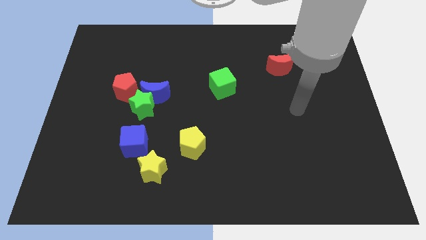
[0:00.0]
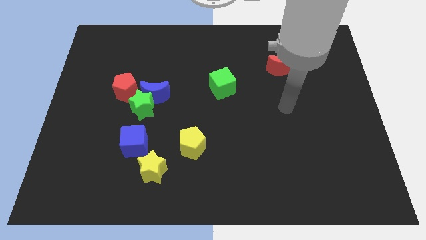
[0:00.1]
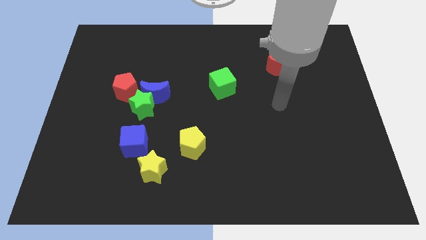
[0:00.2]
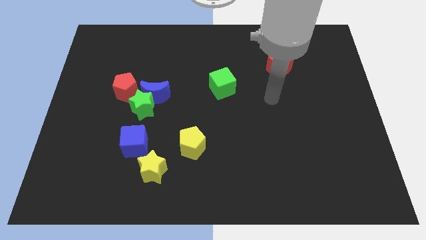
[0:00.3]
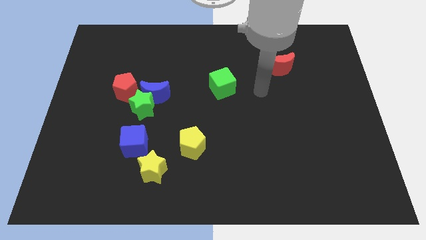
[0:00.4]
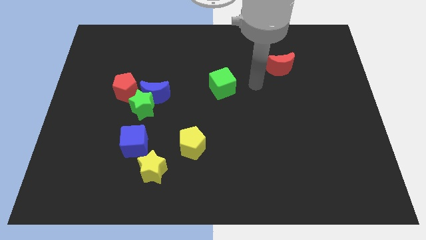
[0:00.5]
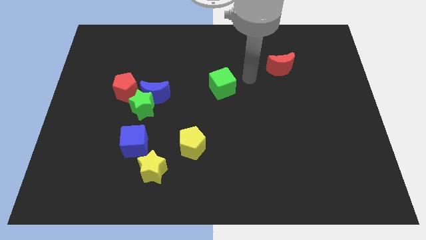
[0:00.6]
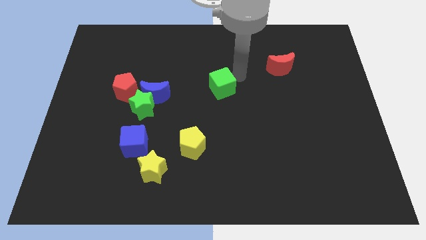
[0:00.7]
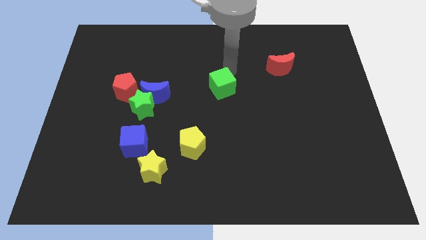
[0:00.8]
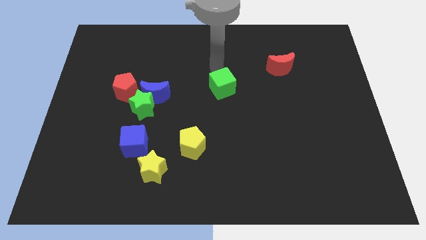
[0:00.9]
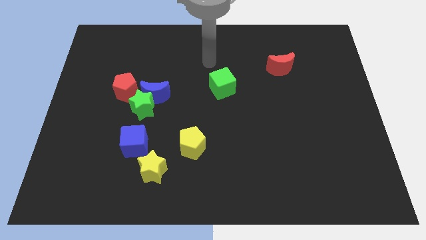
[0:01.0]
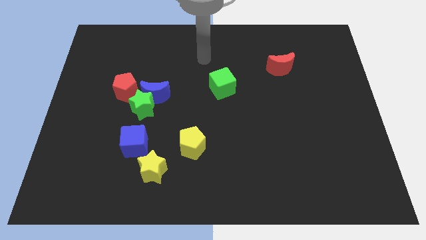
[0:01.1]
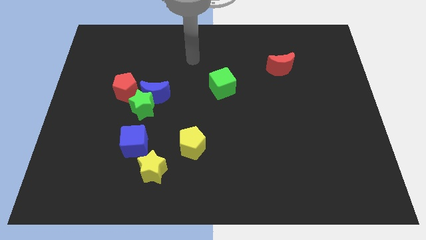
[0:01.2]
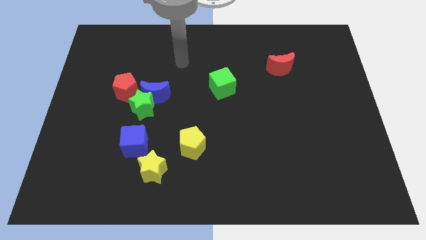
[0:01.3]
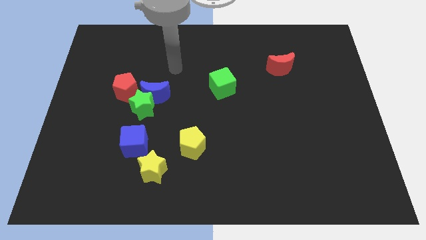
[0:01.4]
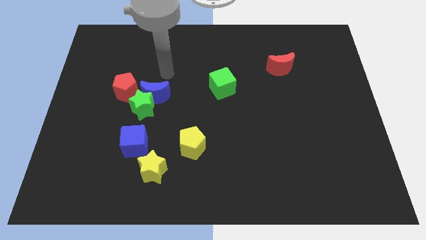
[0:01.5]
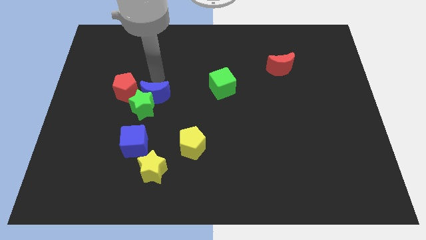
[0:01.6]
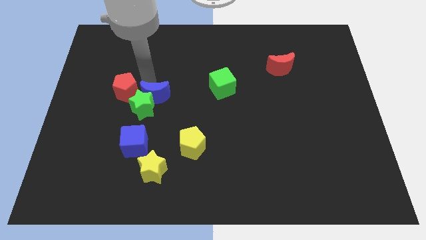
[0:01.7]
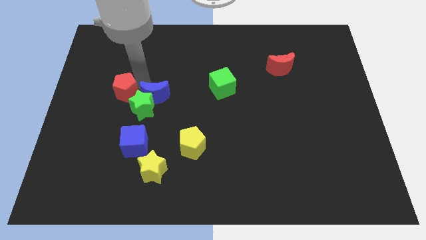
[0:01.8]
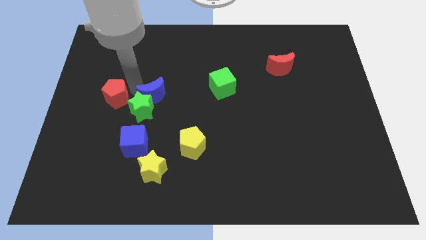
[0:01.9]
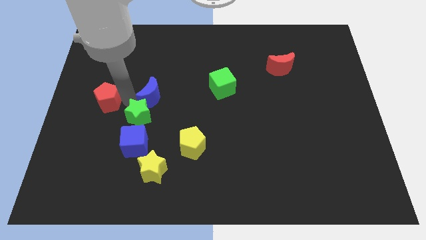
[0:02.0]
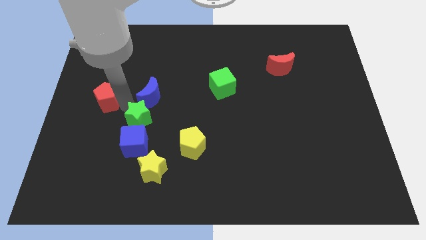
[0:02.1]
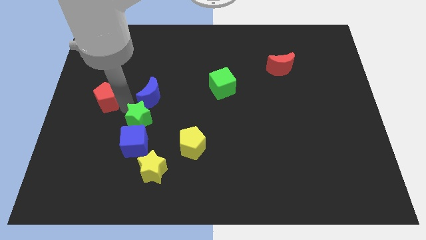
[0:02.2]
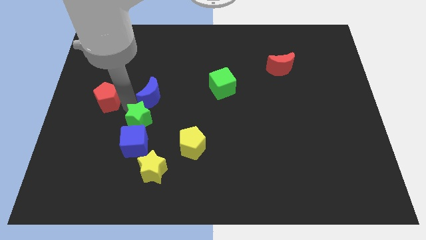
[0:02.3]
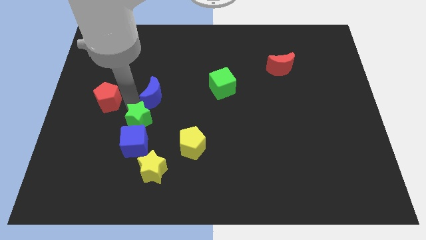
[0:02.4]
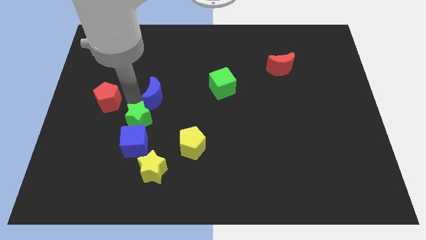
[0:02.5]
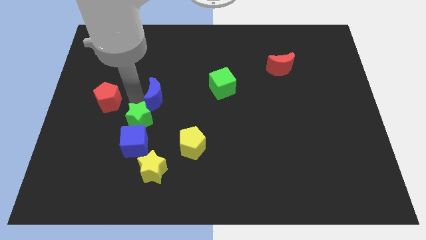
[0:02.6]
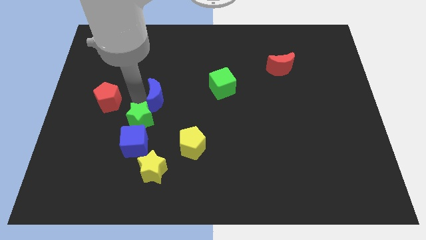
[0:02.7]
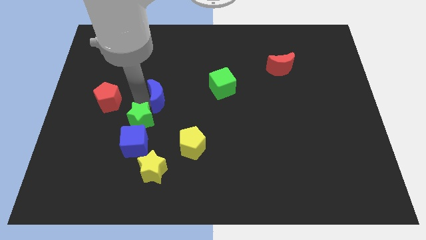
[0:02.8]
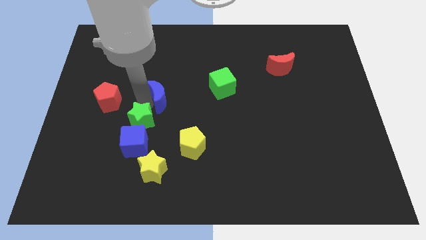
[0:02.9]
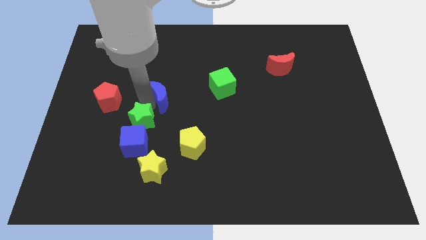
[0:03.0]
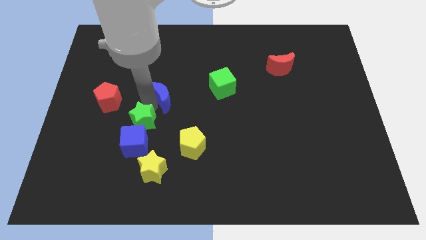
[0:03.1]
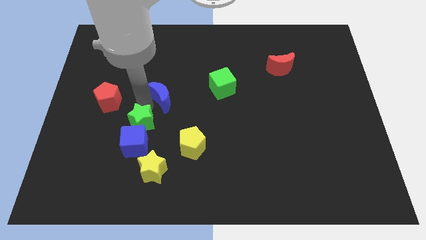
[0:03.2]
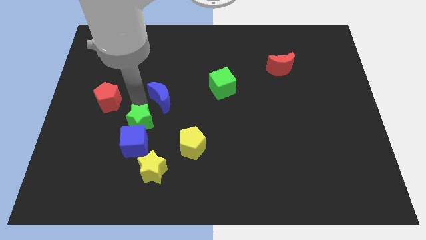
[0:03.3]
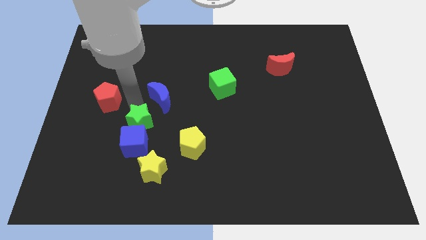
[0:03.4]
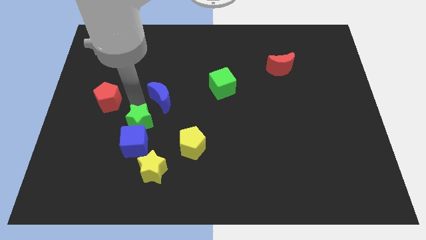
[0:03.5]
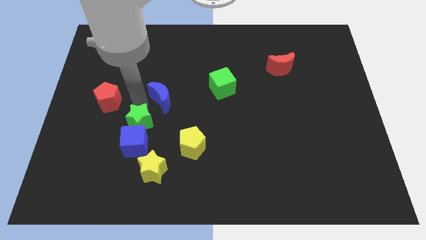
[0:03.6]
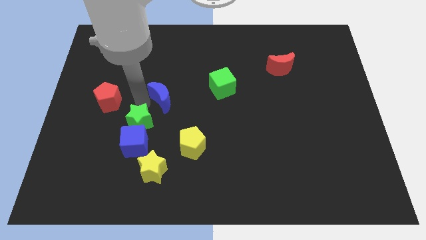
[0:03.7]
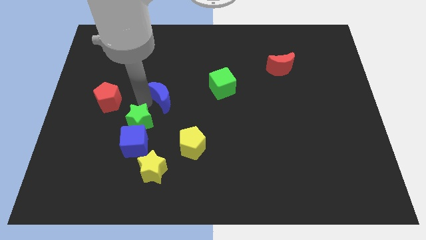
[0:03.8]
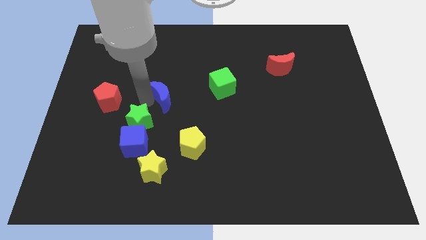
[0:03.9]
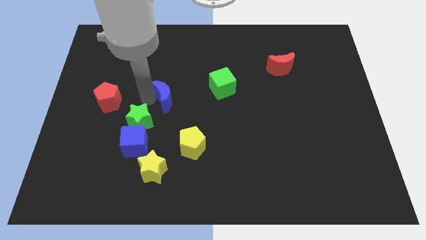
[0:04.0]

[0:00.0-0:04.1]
pull the blue moon apart from the green star and red pentagon

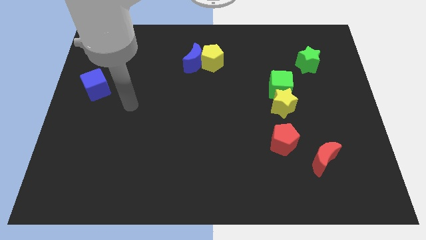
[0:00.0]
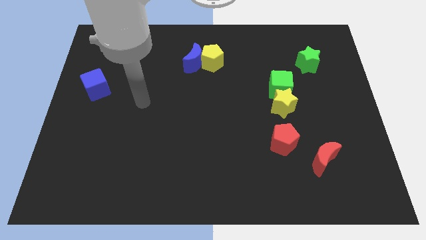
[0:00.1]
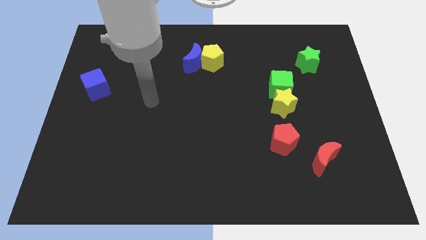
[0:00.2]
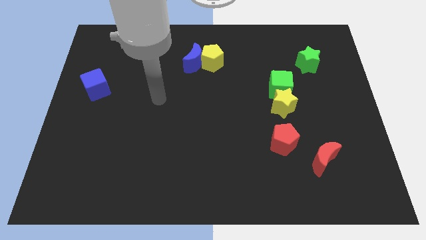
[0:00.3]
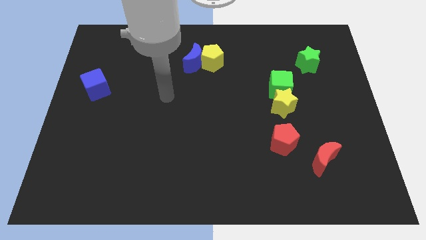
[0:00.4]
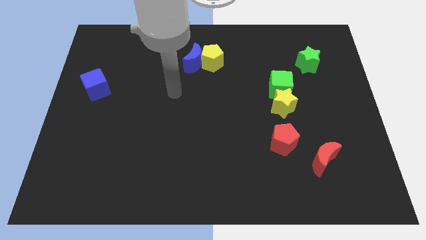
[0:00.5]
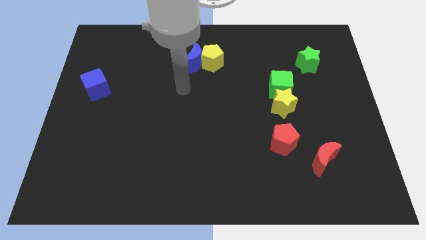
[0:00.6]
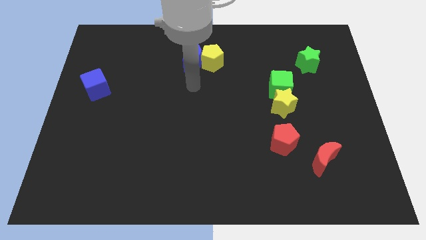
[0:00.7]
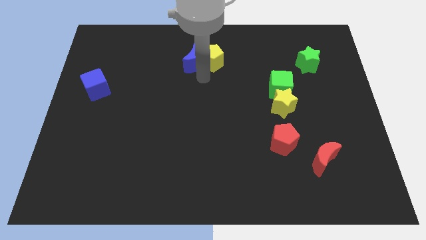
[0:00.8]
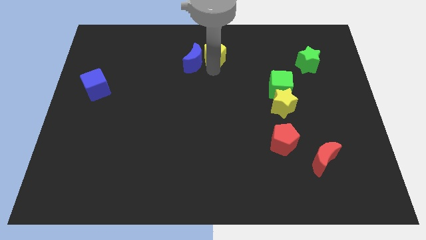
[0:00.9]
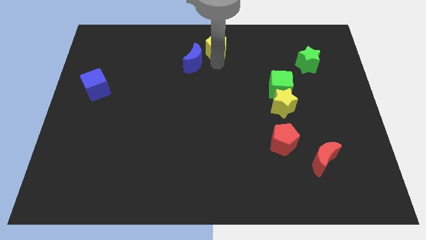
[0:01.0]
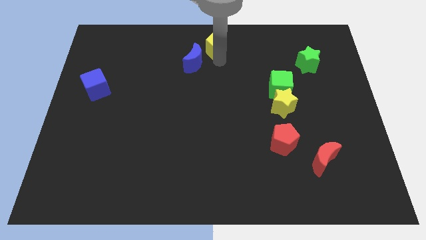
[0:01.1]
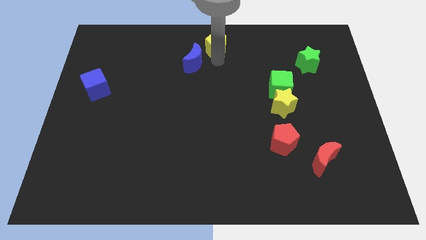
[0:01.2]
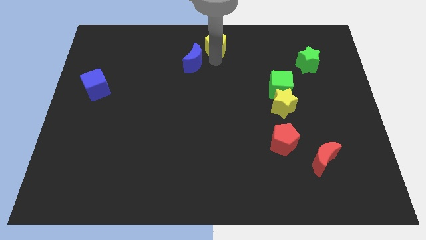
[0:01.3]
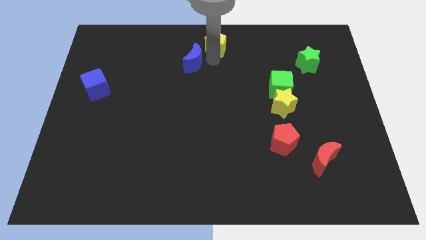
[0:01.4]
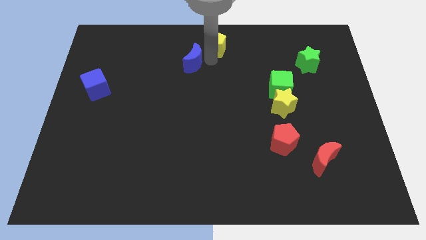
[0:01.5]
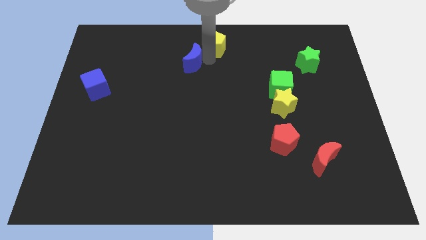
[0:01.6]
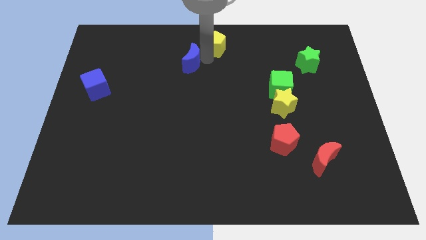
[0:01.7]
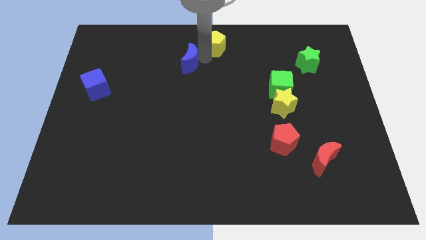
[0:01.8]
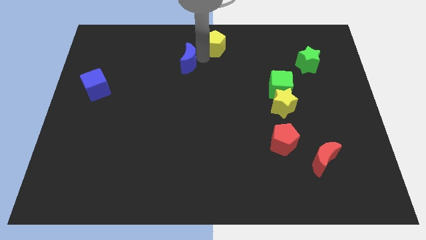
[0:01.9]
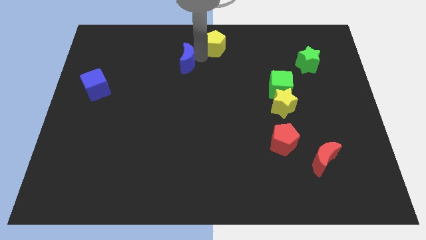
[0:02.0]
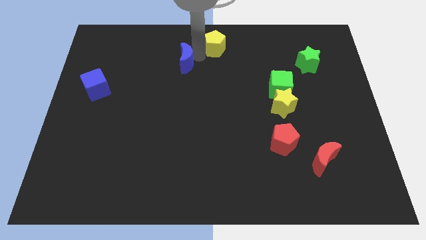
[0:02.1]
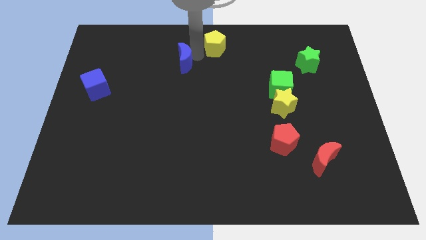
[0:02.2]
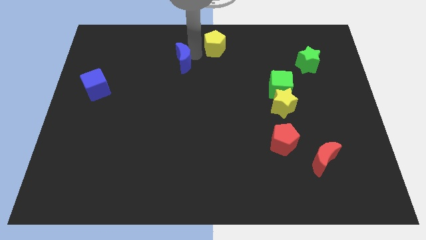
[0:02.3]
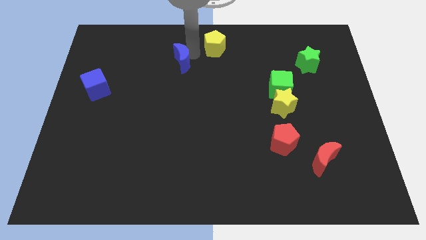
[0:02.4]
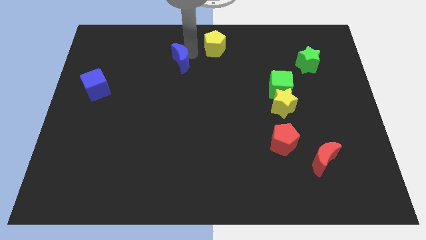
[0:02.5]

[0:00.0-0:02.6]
separate the blue moon from the yellow pentagon

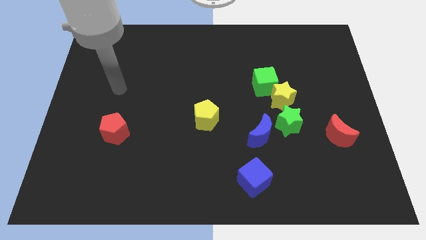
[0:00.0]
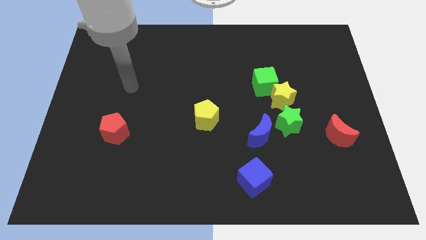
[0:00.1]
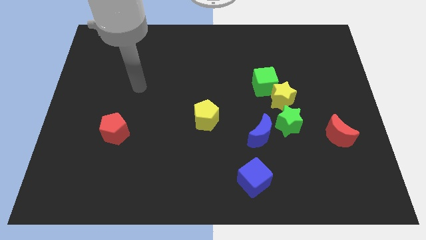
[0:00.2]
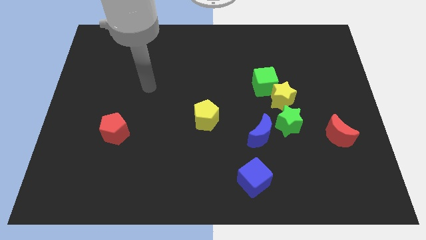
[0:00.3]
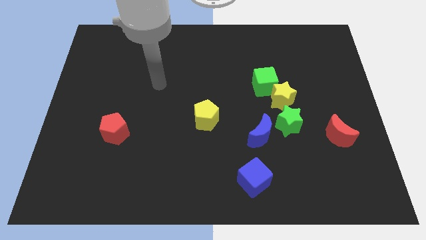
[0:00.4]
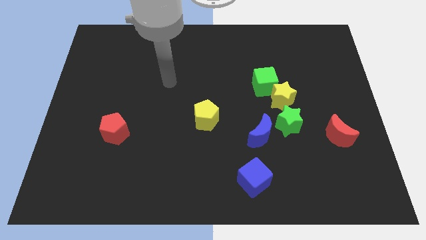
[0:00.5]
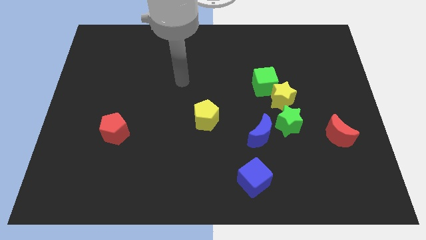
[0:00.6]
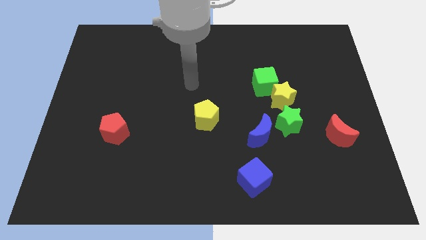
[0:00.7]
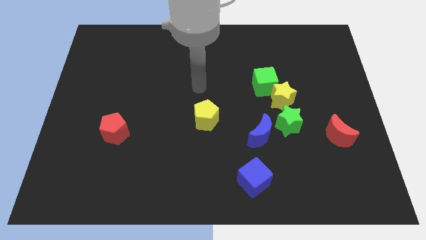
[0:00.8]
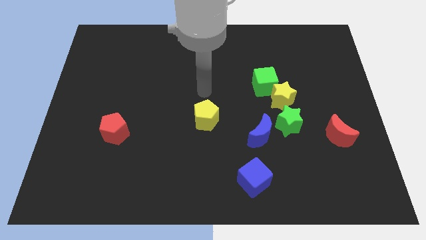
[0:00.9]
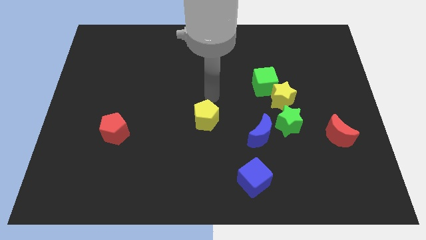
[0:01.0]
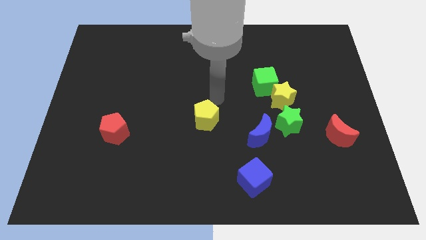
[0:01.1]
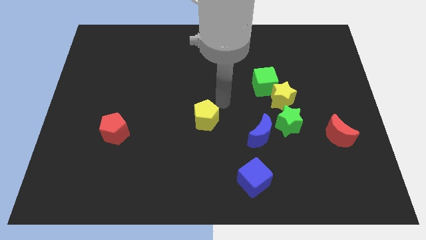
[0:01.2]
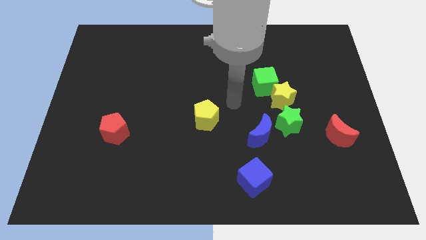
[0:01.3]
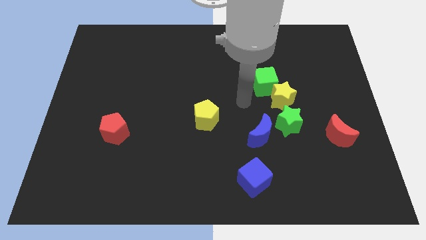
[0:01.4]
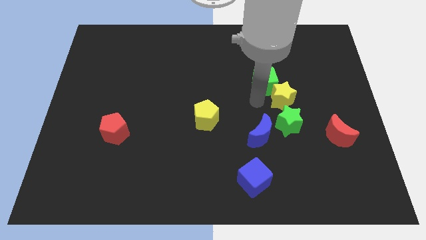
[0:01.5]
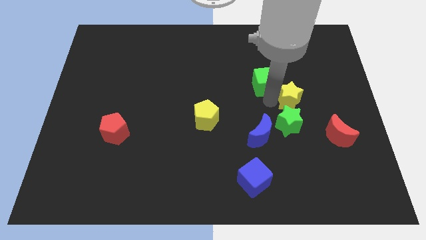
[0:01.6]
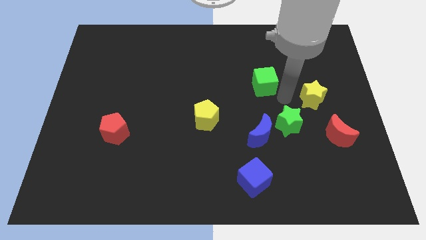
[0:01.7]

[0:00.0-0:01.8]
pull the green cube apart from the yellow star

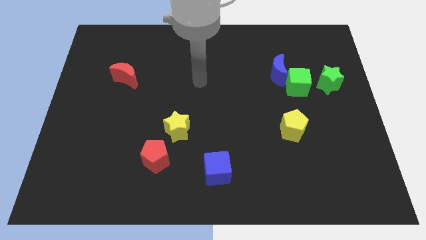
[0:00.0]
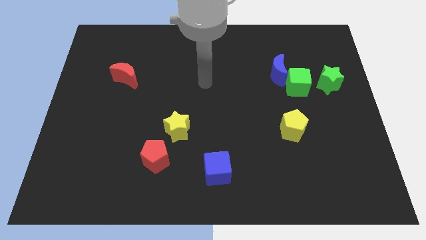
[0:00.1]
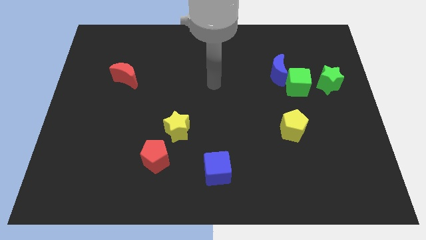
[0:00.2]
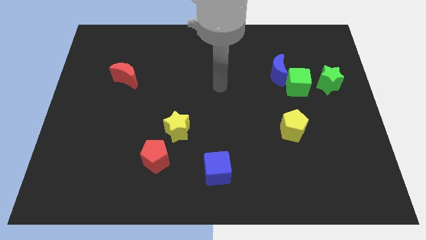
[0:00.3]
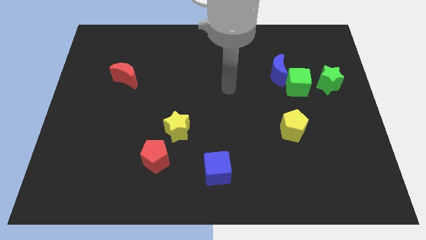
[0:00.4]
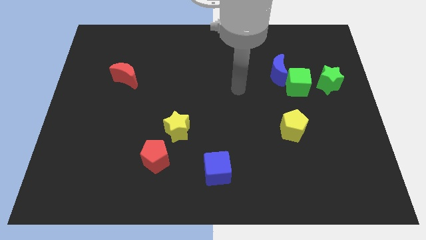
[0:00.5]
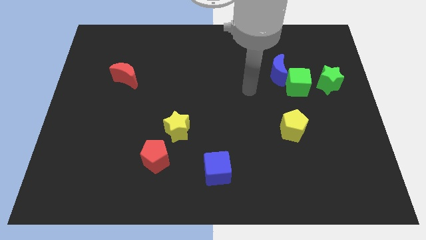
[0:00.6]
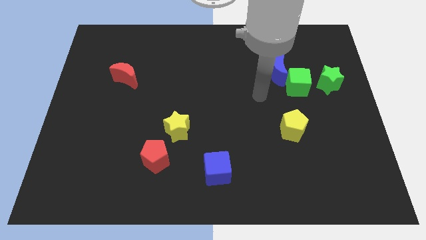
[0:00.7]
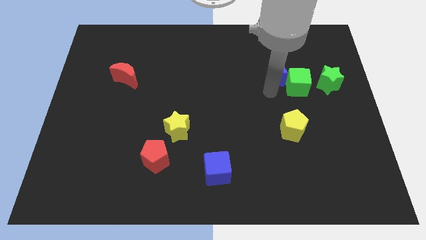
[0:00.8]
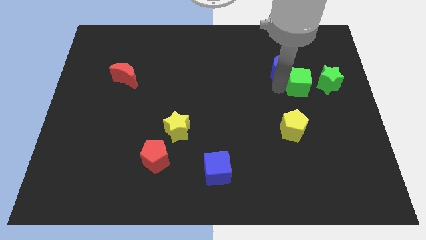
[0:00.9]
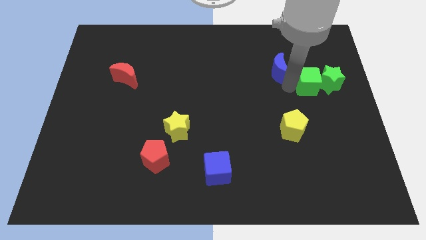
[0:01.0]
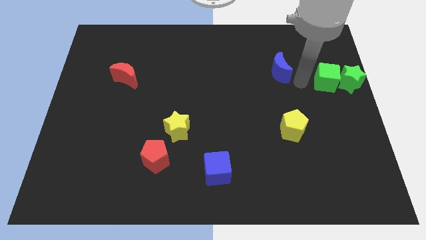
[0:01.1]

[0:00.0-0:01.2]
pull the blue moon apart from the green cube
